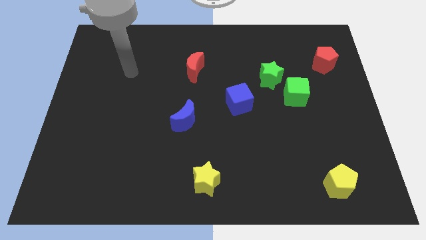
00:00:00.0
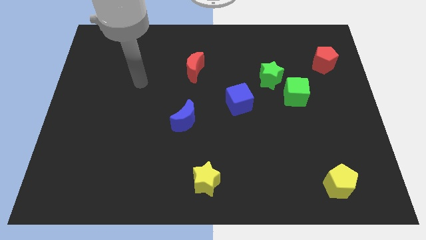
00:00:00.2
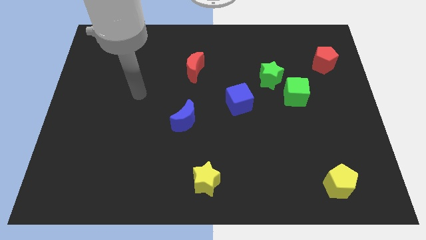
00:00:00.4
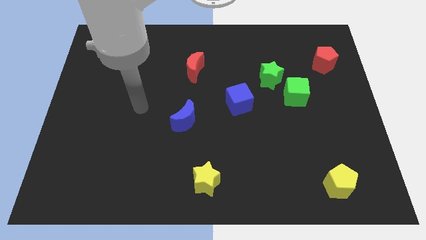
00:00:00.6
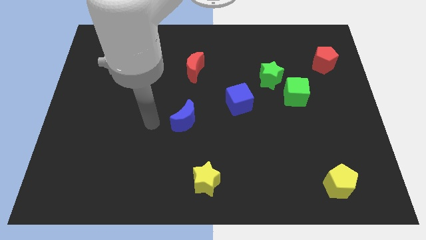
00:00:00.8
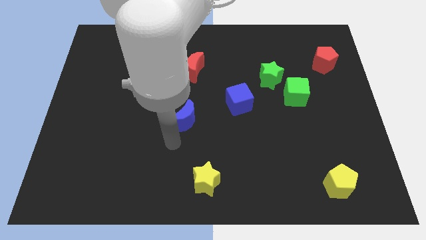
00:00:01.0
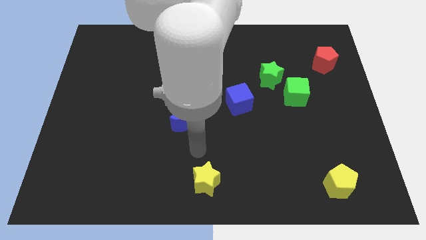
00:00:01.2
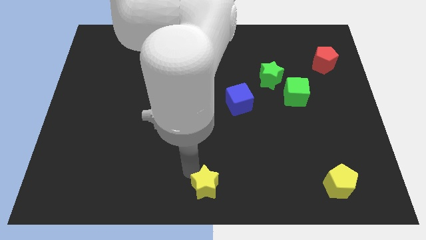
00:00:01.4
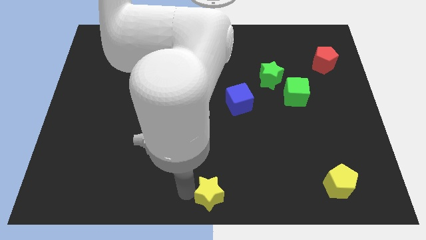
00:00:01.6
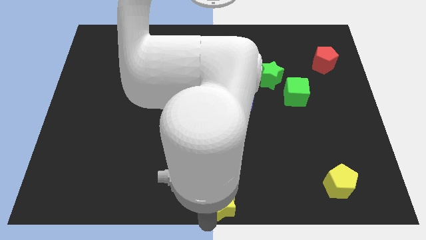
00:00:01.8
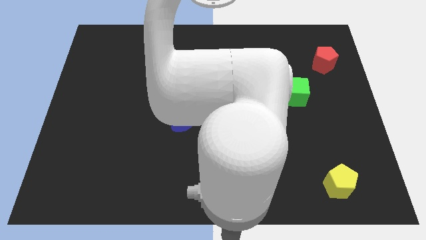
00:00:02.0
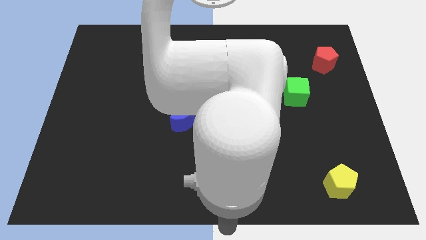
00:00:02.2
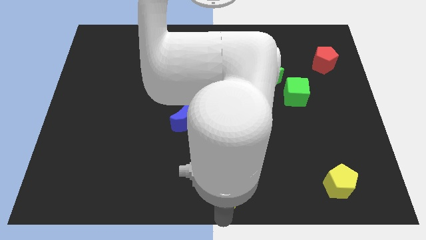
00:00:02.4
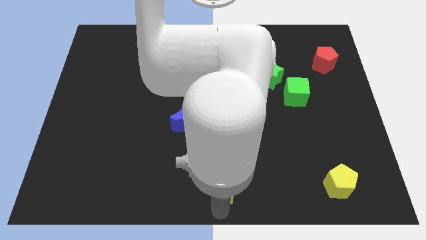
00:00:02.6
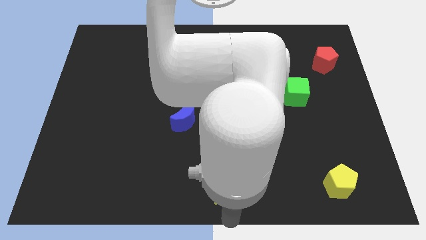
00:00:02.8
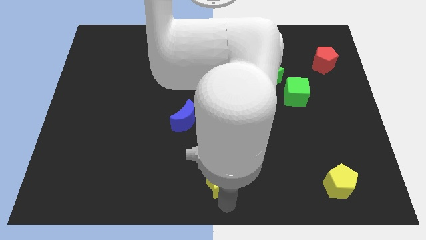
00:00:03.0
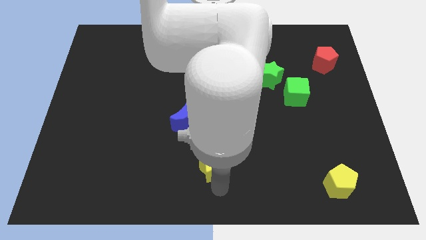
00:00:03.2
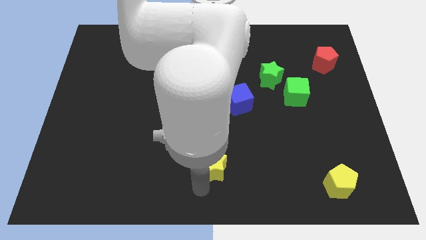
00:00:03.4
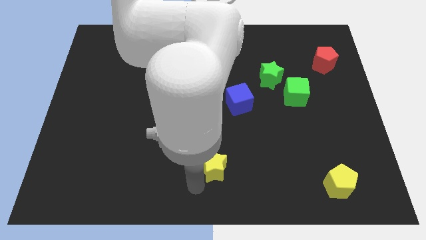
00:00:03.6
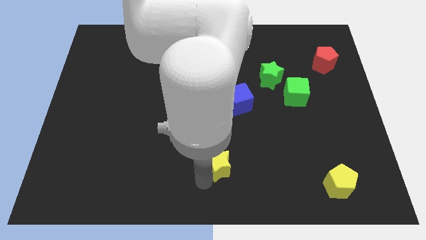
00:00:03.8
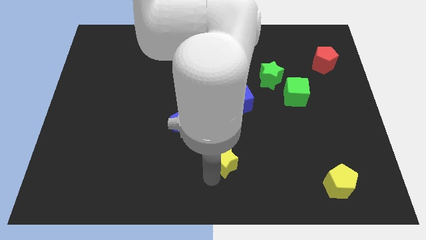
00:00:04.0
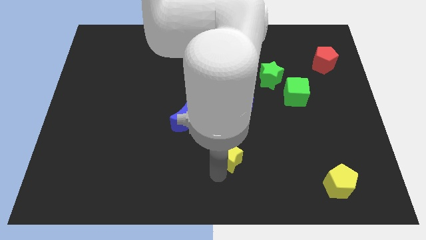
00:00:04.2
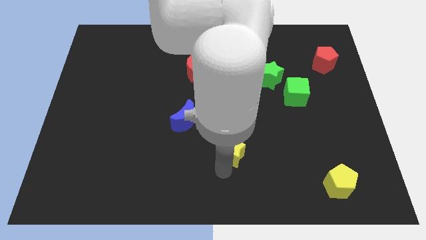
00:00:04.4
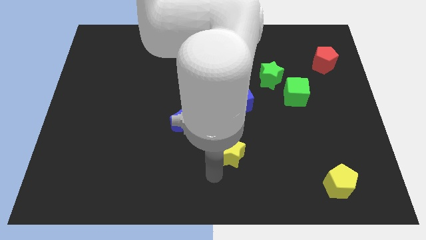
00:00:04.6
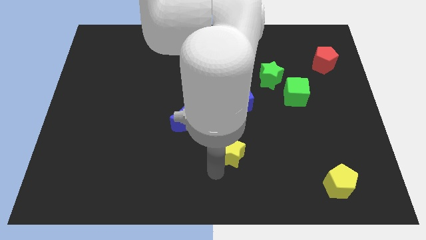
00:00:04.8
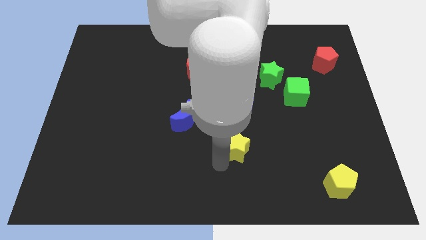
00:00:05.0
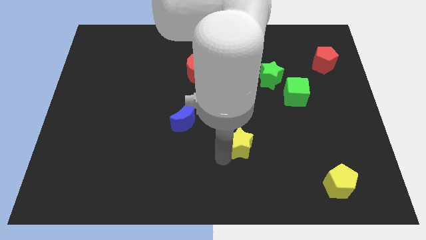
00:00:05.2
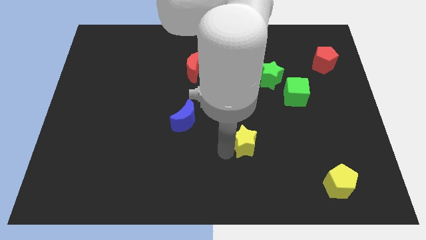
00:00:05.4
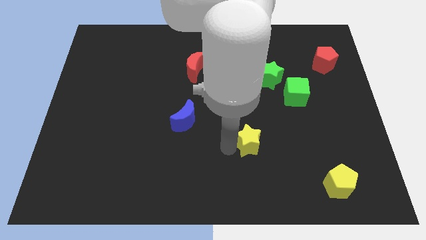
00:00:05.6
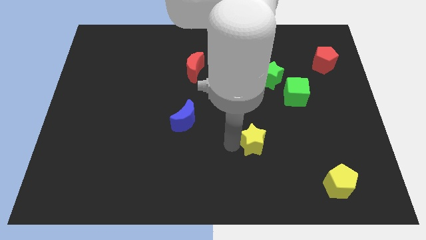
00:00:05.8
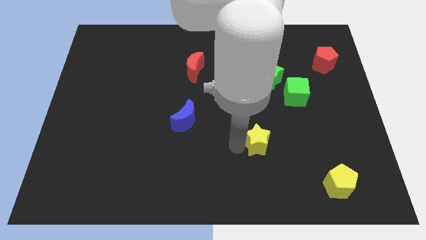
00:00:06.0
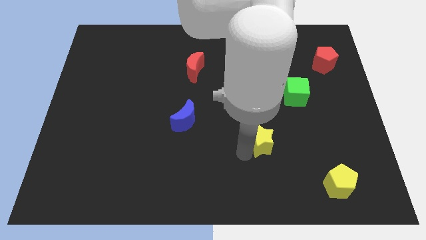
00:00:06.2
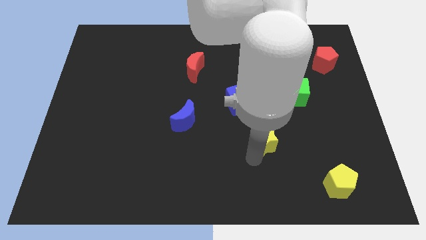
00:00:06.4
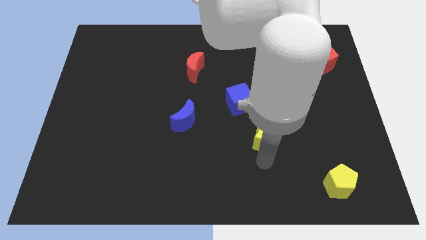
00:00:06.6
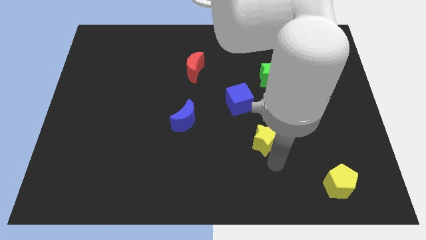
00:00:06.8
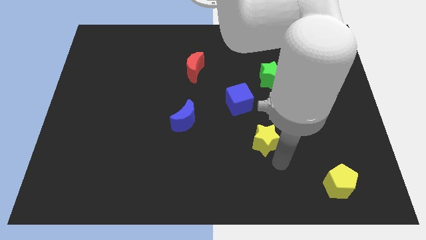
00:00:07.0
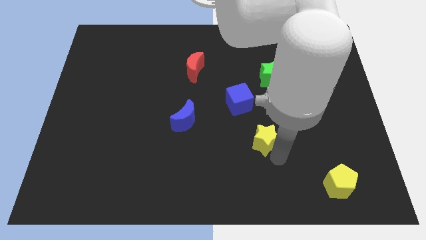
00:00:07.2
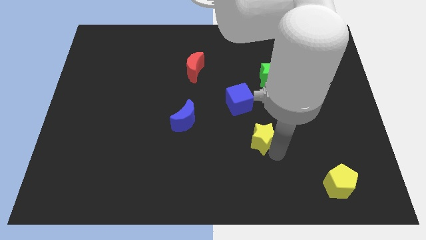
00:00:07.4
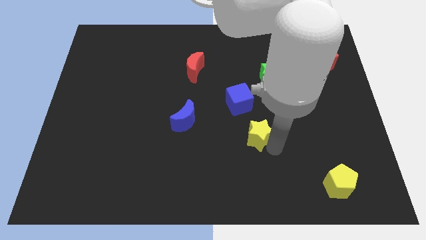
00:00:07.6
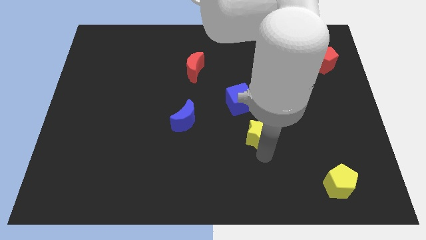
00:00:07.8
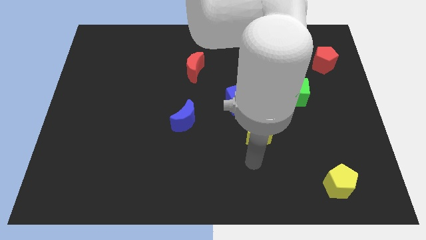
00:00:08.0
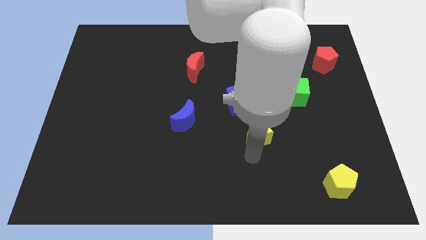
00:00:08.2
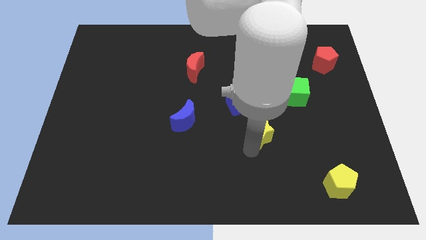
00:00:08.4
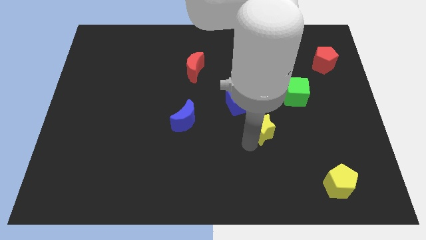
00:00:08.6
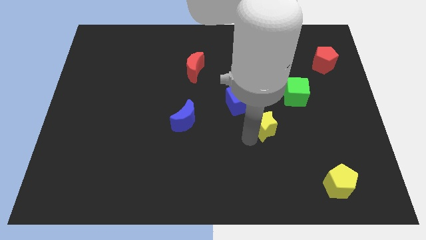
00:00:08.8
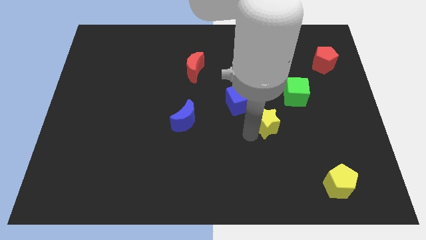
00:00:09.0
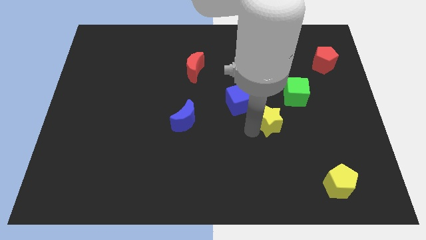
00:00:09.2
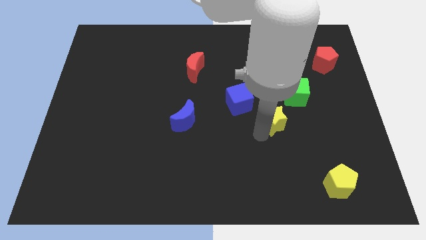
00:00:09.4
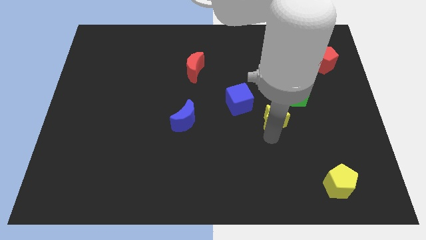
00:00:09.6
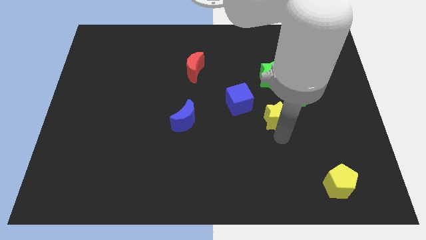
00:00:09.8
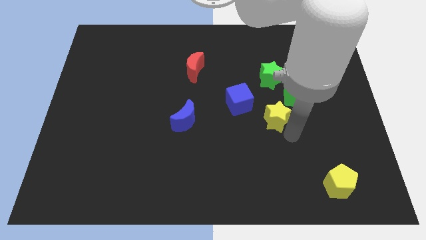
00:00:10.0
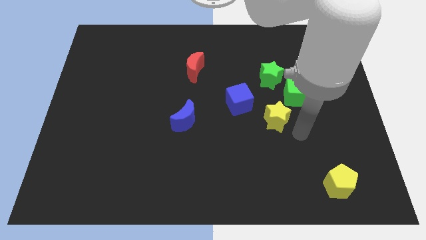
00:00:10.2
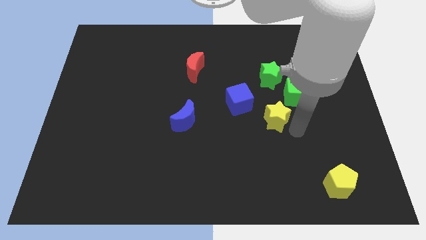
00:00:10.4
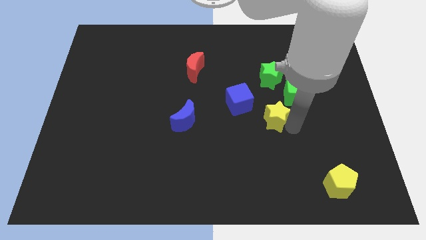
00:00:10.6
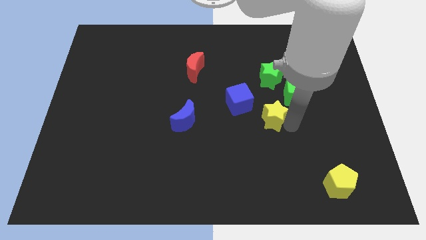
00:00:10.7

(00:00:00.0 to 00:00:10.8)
move the yellow star just right of the blue cube

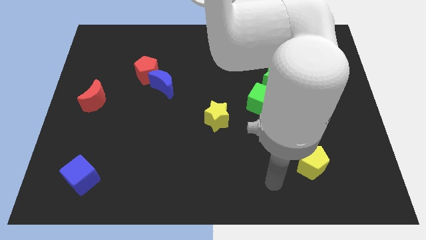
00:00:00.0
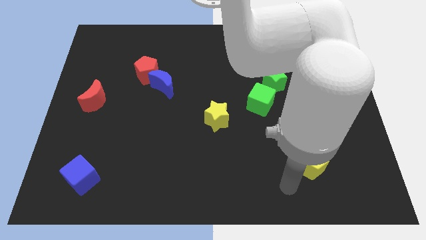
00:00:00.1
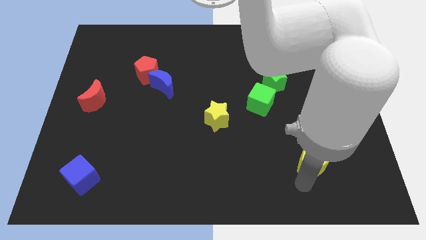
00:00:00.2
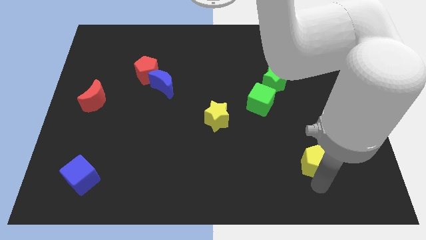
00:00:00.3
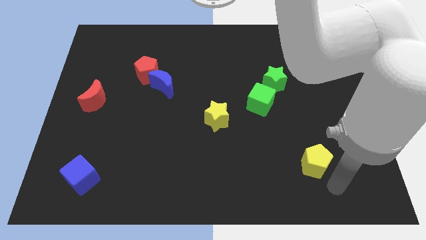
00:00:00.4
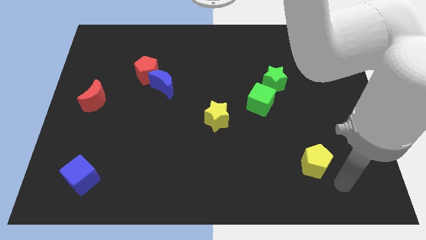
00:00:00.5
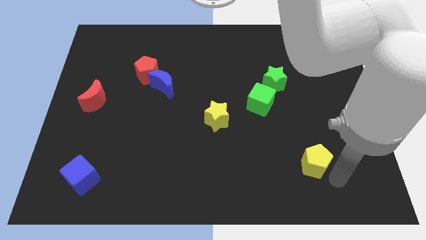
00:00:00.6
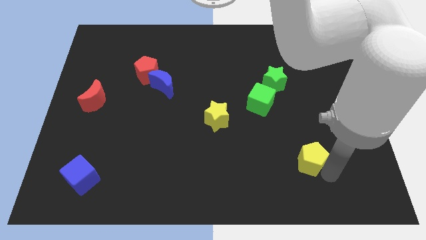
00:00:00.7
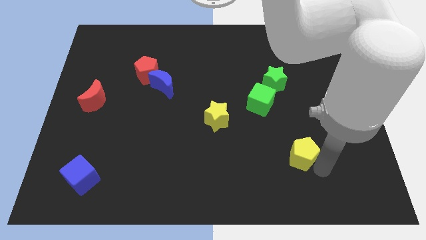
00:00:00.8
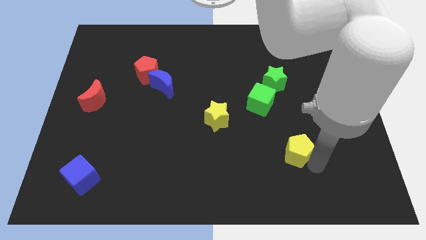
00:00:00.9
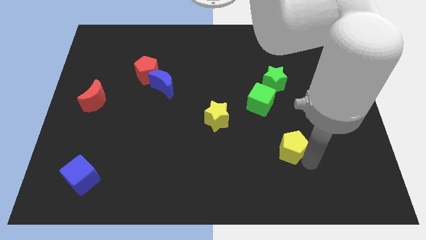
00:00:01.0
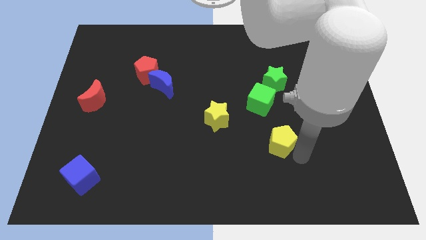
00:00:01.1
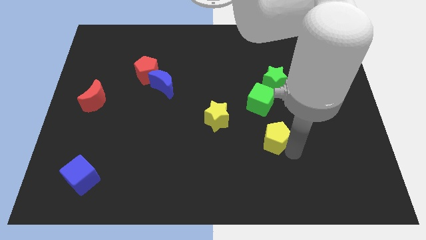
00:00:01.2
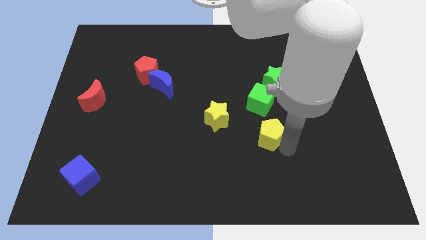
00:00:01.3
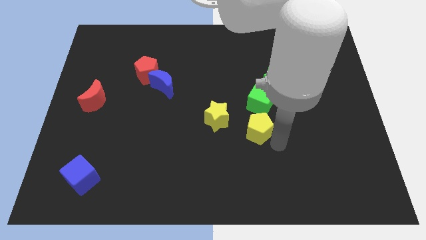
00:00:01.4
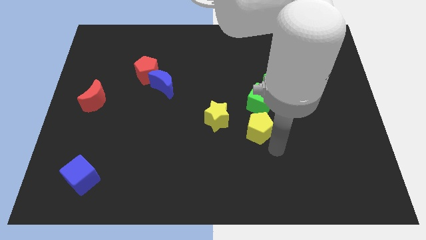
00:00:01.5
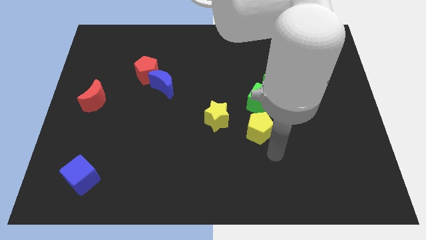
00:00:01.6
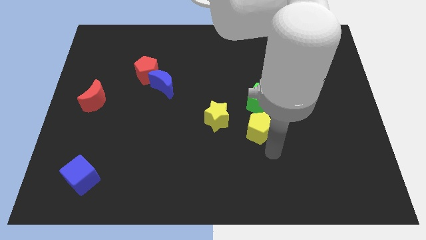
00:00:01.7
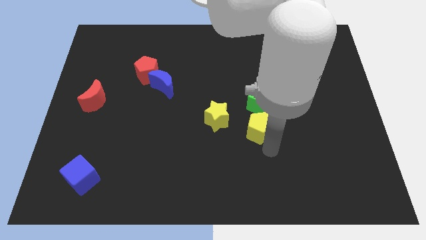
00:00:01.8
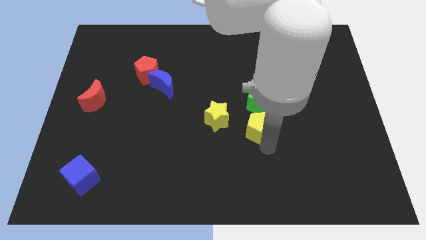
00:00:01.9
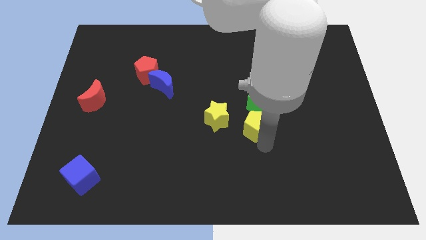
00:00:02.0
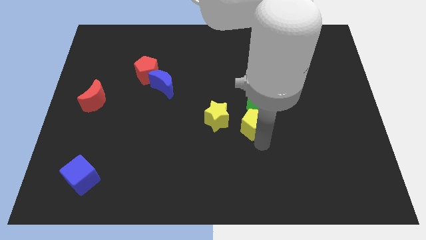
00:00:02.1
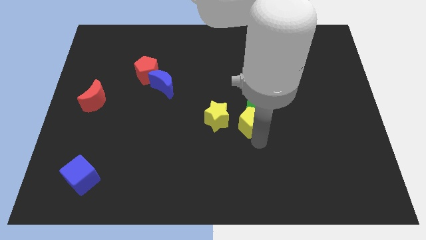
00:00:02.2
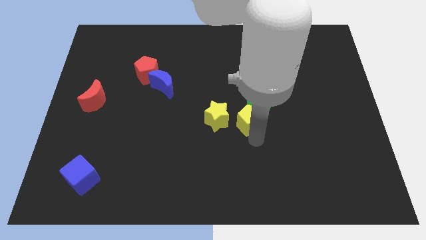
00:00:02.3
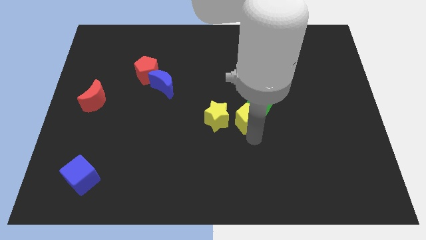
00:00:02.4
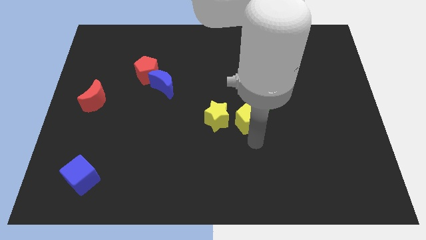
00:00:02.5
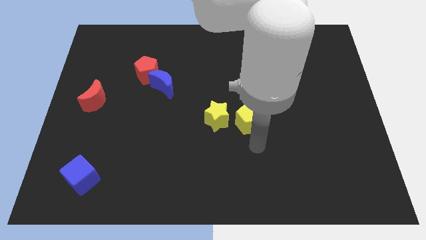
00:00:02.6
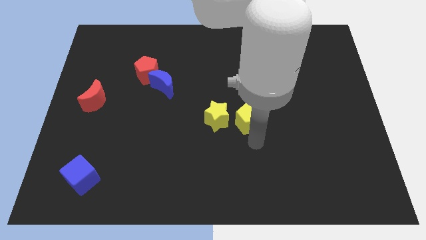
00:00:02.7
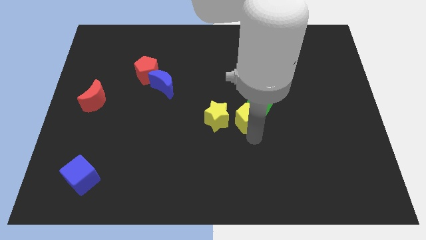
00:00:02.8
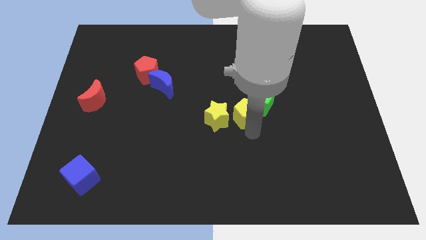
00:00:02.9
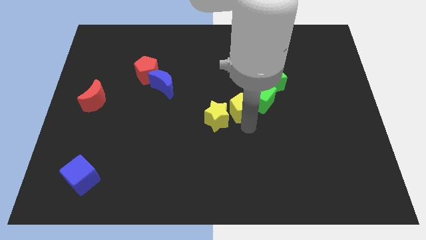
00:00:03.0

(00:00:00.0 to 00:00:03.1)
put the yellow pentagon to the bottom left side of the green star
